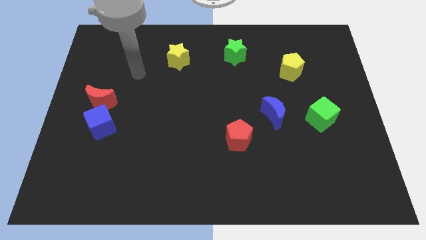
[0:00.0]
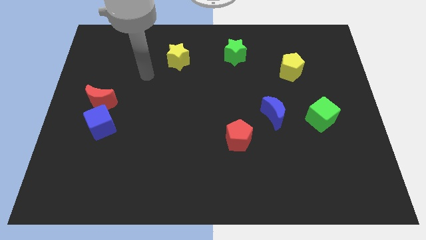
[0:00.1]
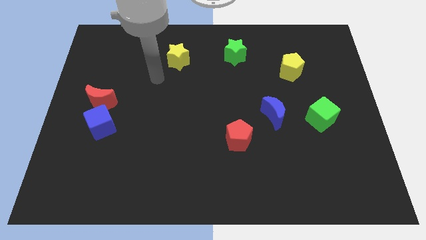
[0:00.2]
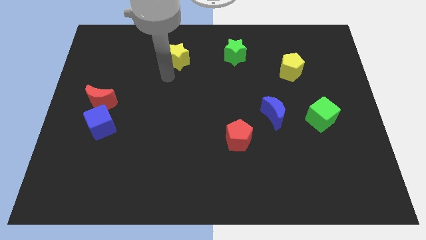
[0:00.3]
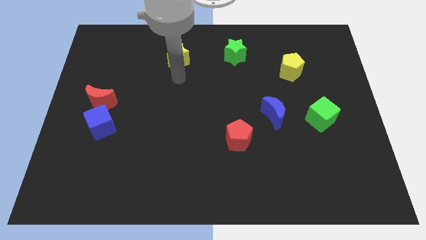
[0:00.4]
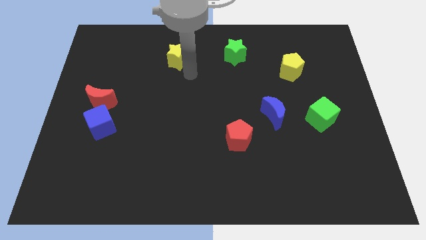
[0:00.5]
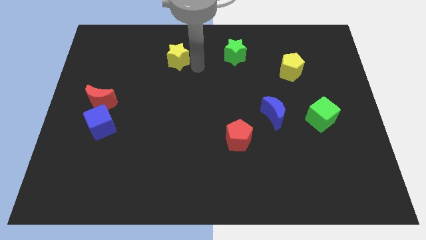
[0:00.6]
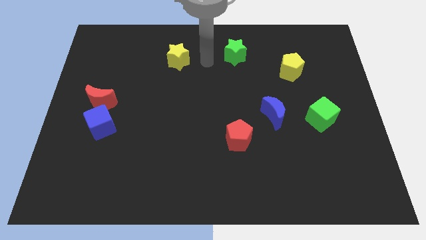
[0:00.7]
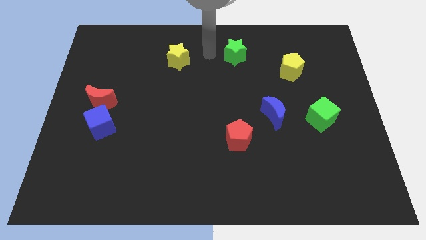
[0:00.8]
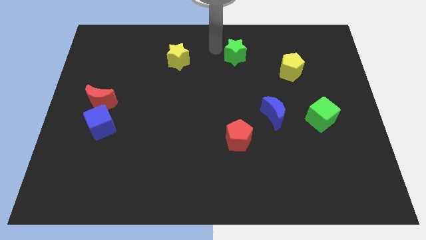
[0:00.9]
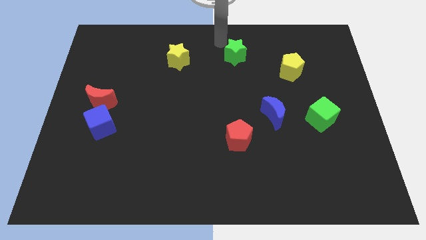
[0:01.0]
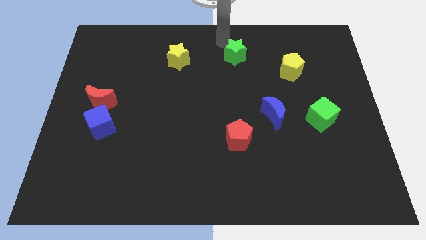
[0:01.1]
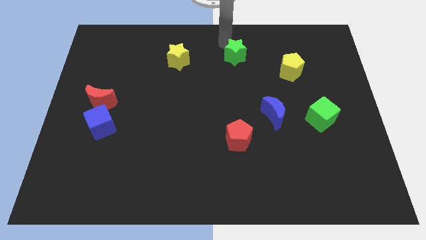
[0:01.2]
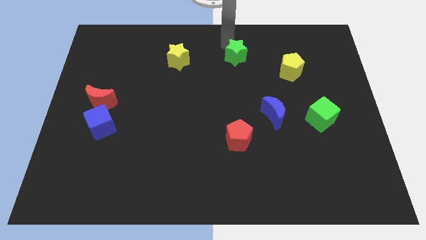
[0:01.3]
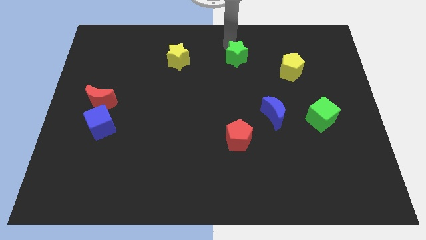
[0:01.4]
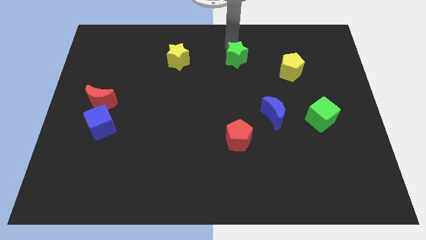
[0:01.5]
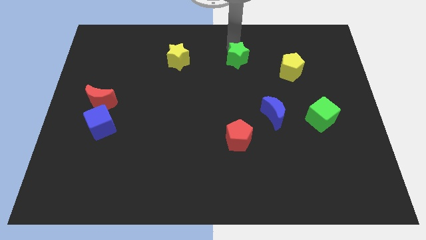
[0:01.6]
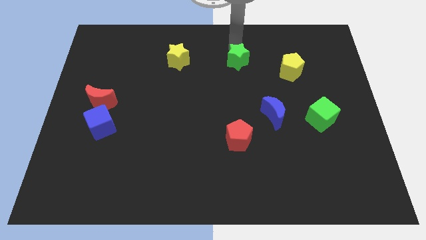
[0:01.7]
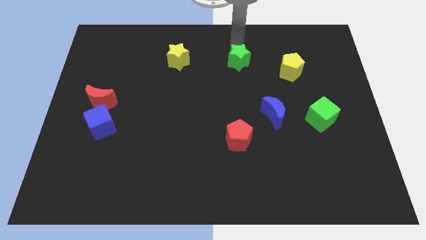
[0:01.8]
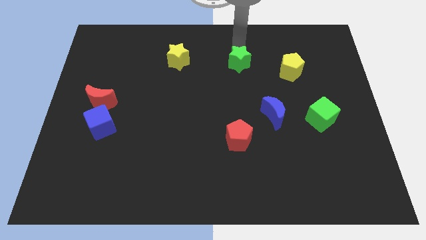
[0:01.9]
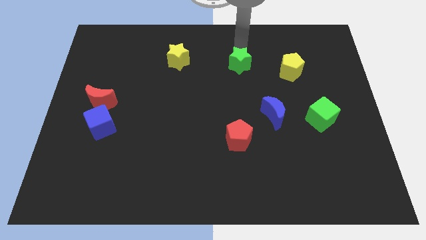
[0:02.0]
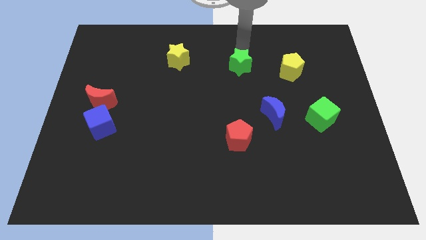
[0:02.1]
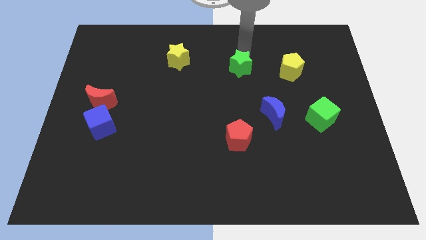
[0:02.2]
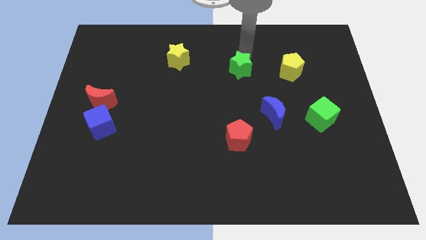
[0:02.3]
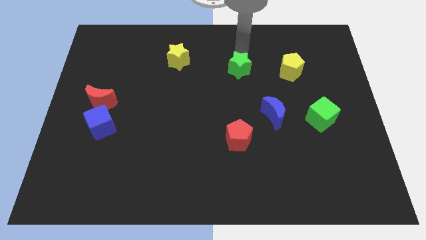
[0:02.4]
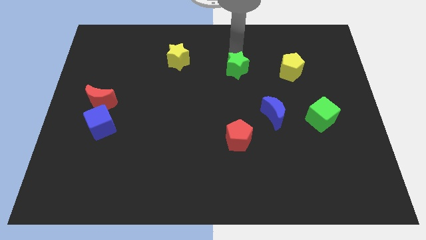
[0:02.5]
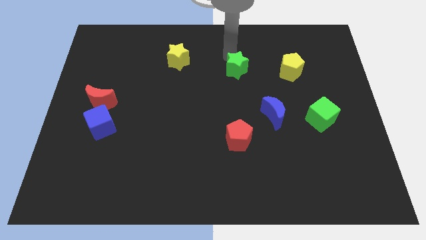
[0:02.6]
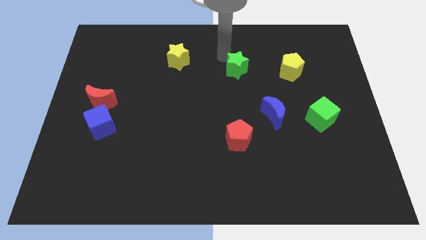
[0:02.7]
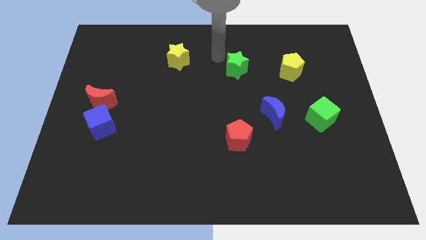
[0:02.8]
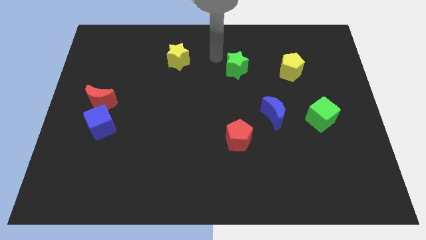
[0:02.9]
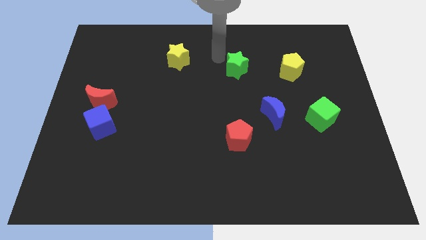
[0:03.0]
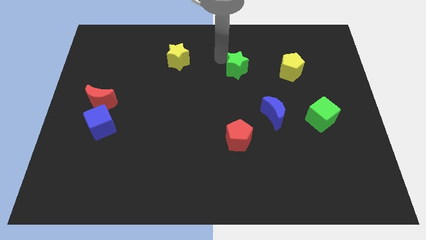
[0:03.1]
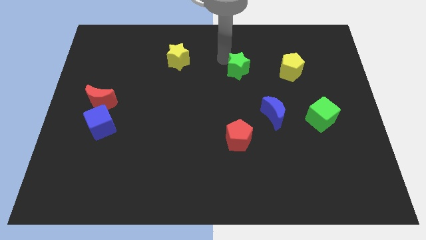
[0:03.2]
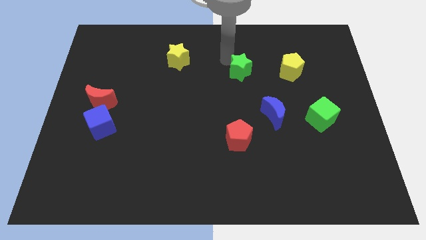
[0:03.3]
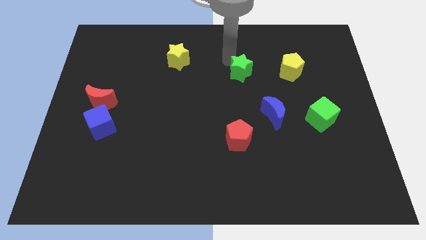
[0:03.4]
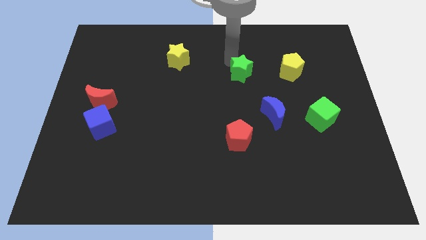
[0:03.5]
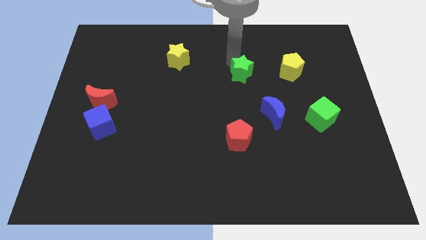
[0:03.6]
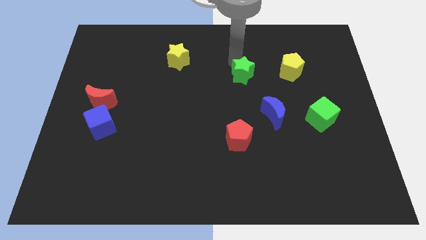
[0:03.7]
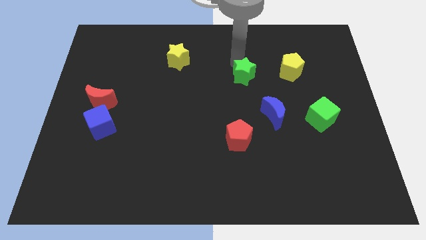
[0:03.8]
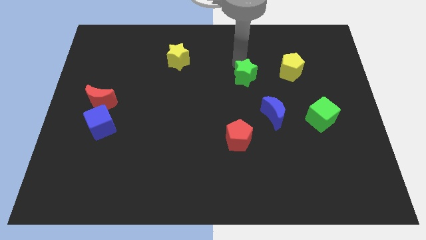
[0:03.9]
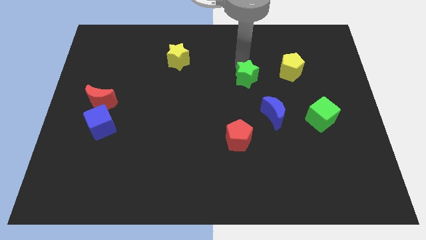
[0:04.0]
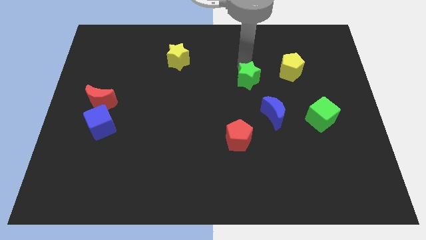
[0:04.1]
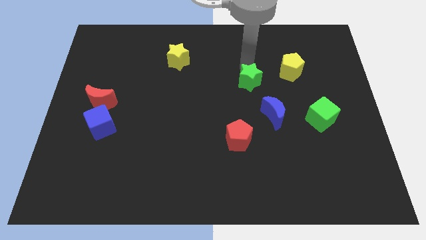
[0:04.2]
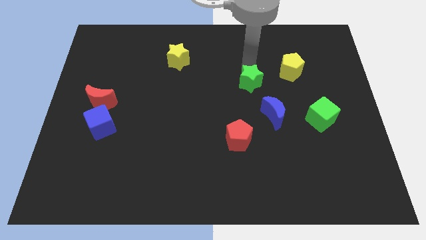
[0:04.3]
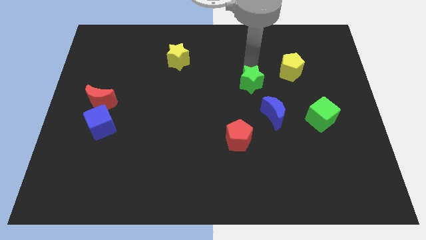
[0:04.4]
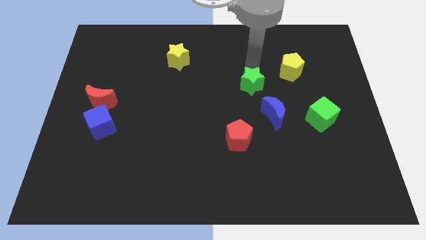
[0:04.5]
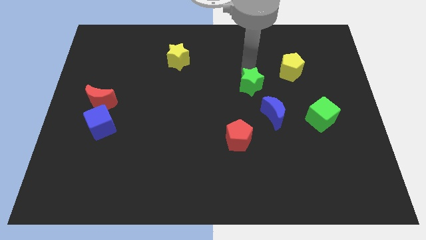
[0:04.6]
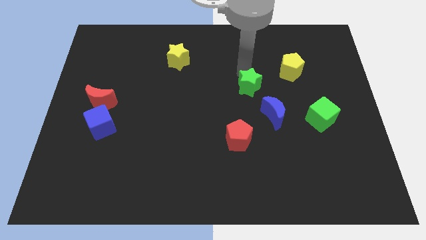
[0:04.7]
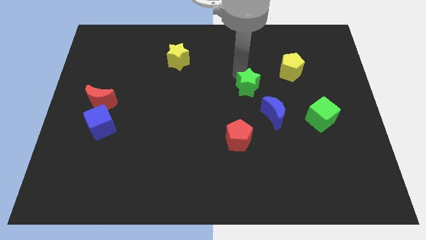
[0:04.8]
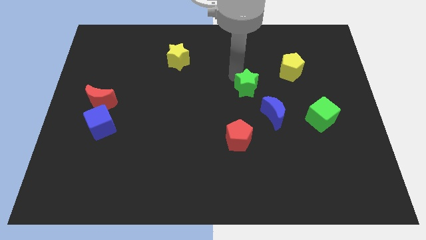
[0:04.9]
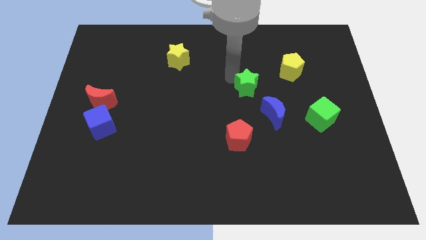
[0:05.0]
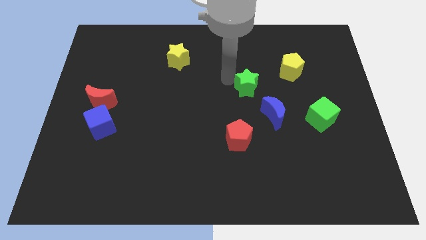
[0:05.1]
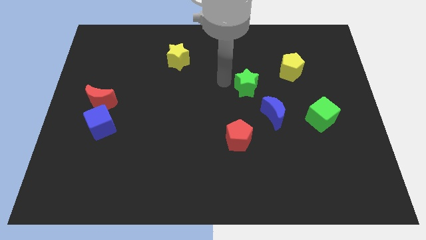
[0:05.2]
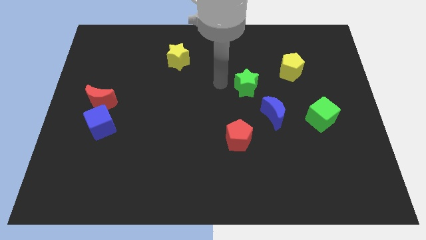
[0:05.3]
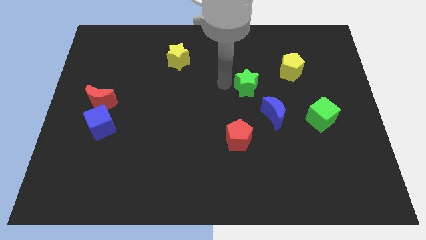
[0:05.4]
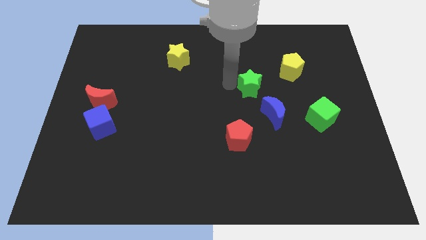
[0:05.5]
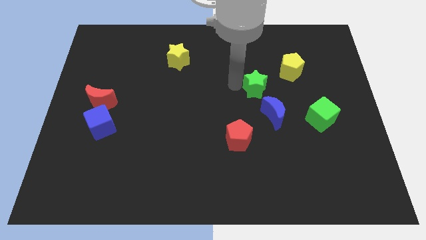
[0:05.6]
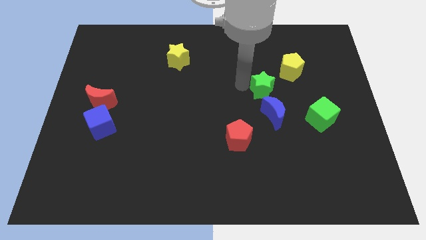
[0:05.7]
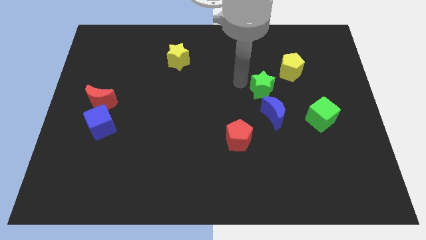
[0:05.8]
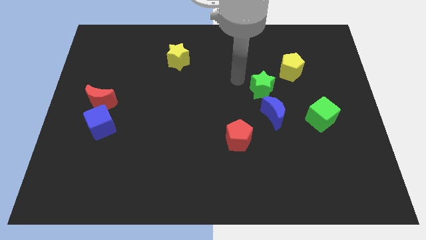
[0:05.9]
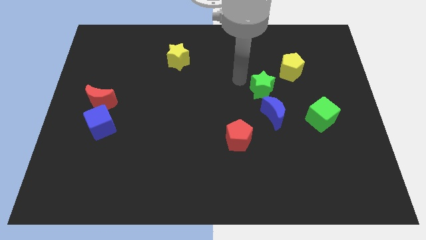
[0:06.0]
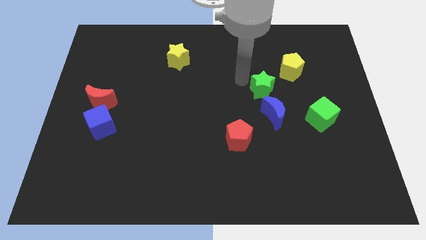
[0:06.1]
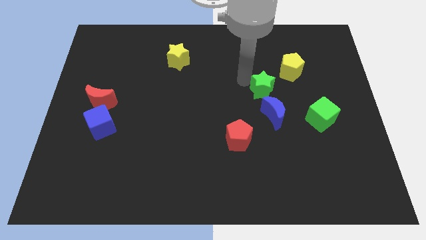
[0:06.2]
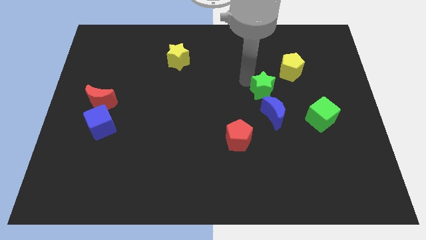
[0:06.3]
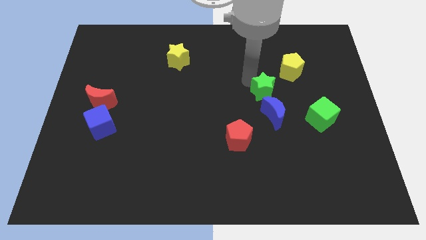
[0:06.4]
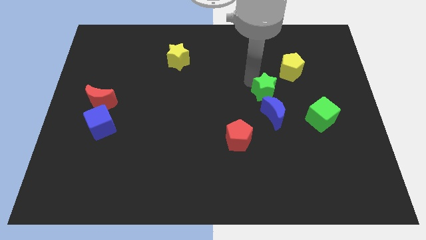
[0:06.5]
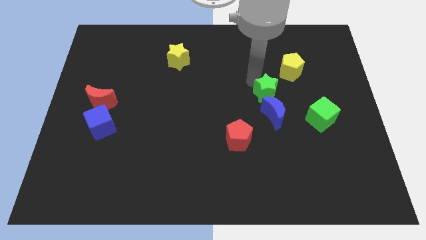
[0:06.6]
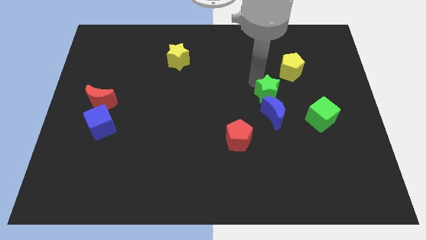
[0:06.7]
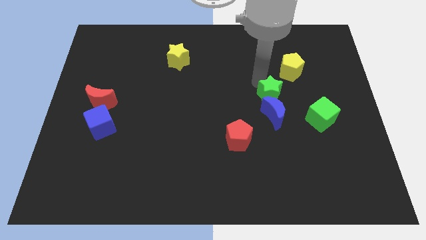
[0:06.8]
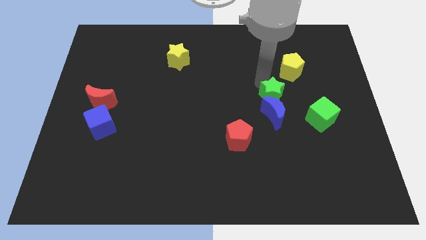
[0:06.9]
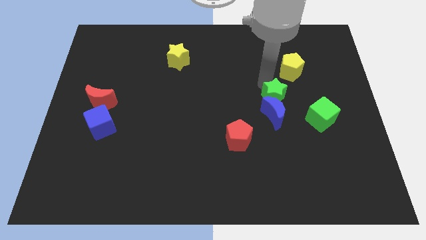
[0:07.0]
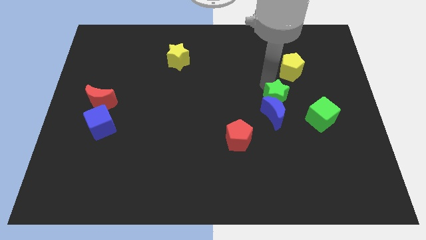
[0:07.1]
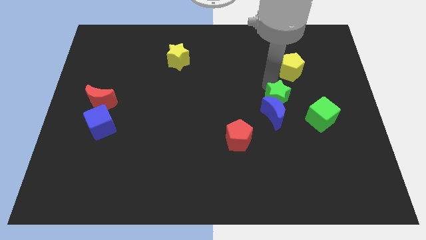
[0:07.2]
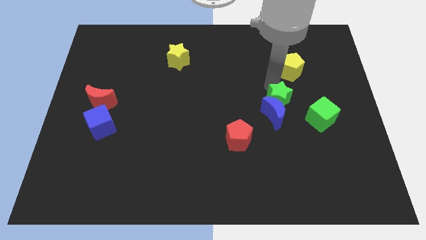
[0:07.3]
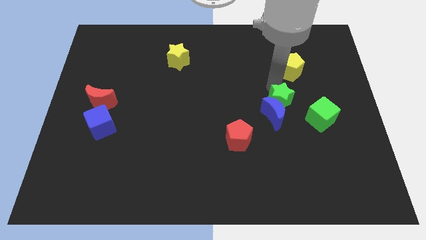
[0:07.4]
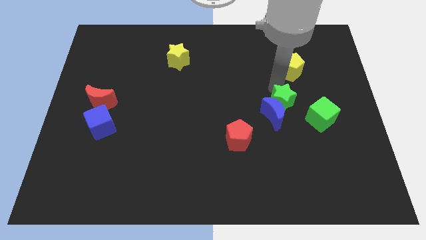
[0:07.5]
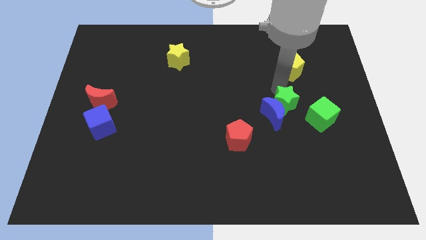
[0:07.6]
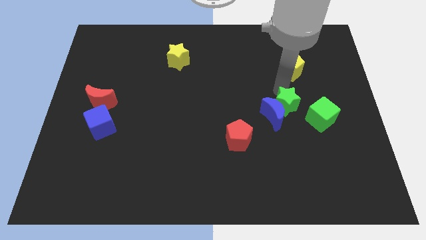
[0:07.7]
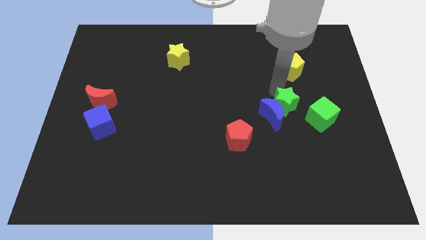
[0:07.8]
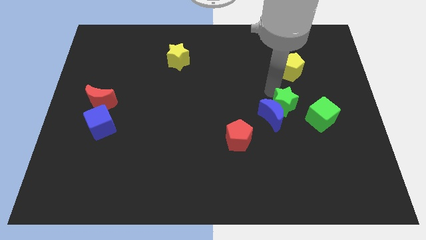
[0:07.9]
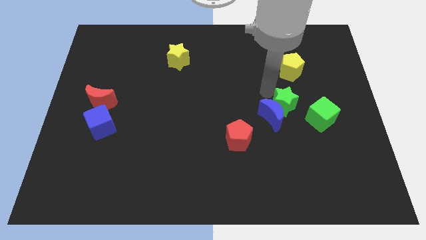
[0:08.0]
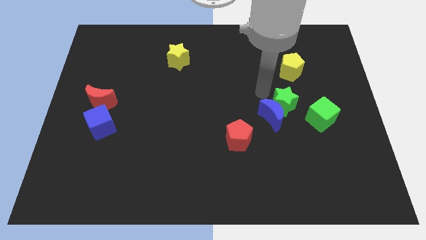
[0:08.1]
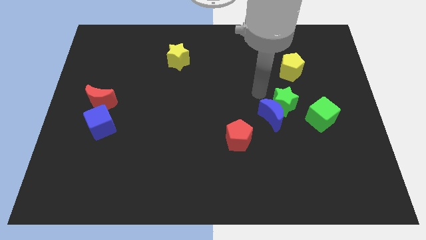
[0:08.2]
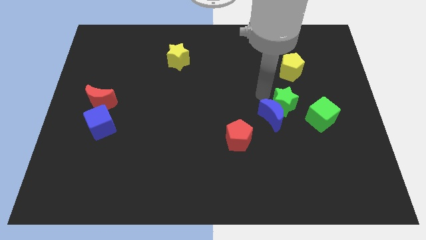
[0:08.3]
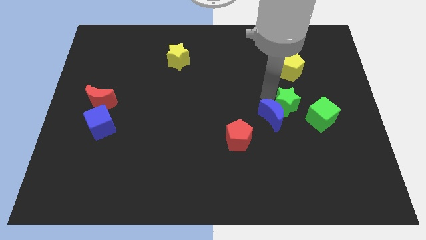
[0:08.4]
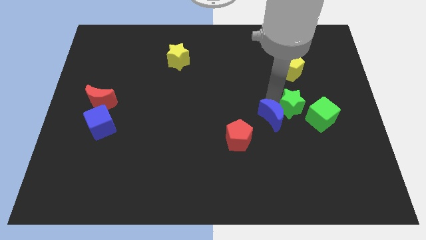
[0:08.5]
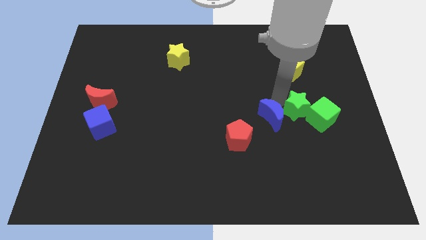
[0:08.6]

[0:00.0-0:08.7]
slide the green star to the green cube
